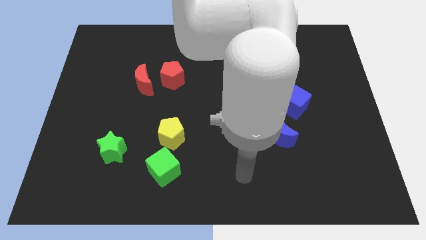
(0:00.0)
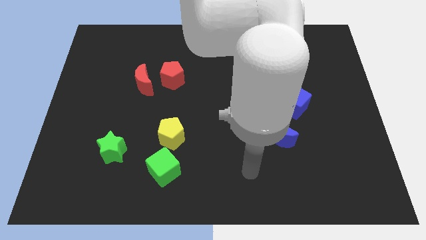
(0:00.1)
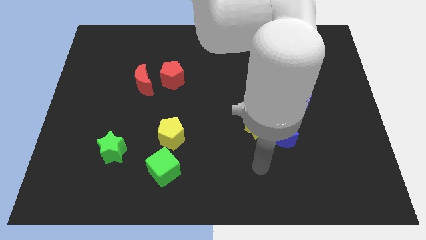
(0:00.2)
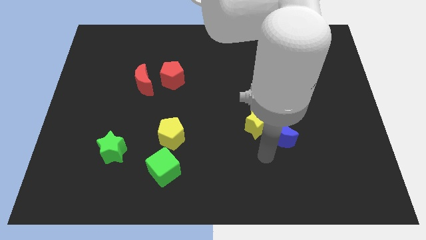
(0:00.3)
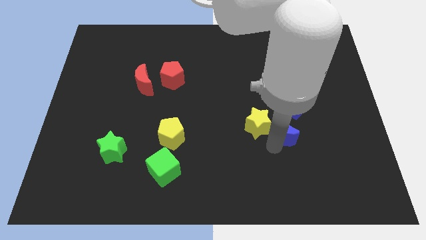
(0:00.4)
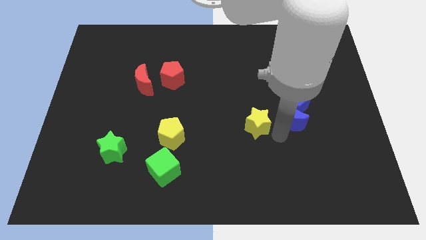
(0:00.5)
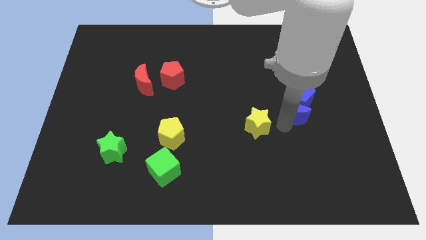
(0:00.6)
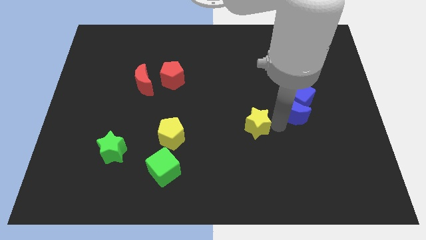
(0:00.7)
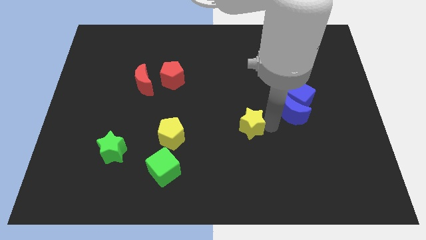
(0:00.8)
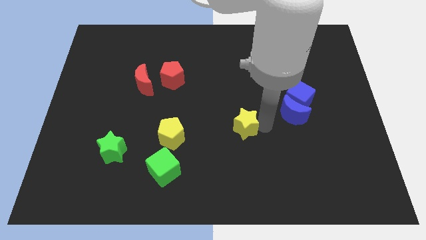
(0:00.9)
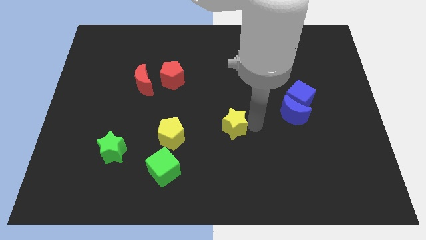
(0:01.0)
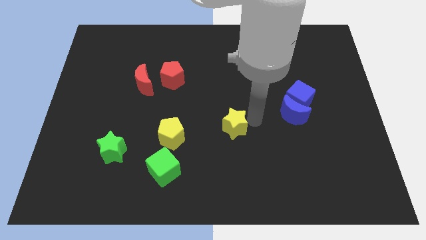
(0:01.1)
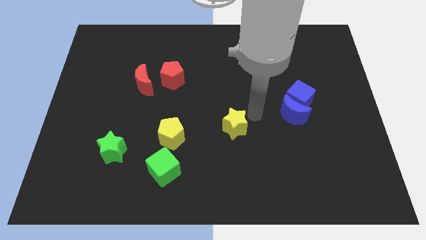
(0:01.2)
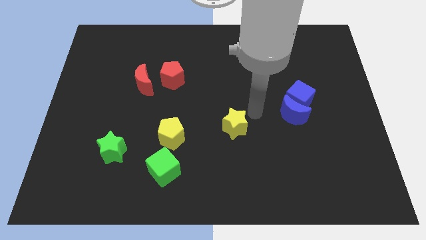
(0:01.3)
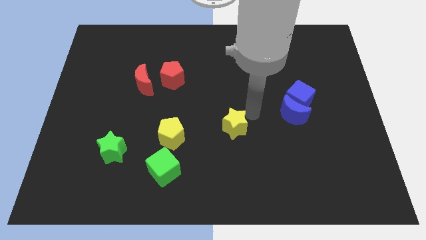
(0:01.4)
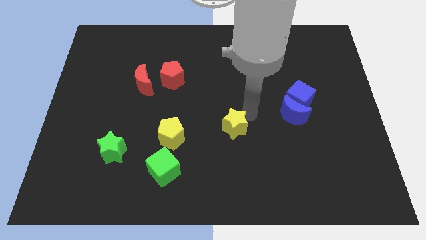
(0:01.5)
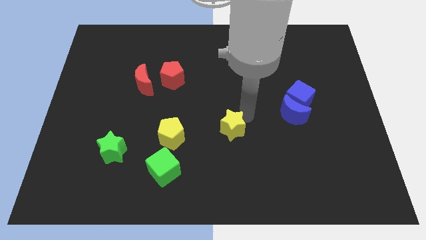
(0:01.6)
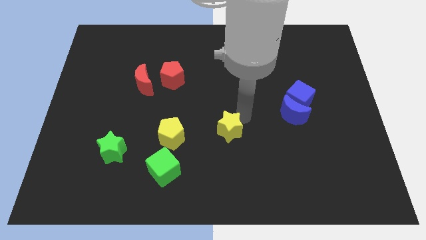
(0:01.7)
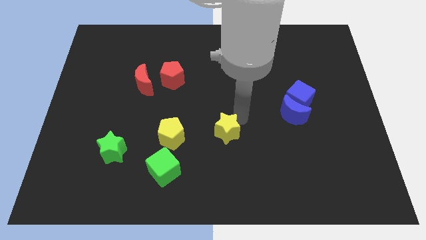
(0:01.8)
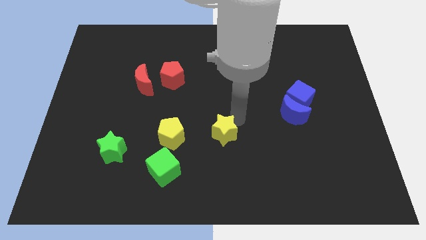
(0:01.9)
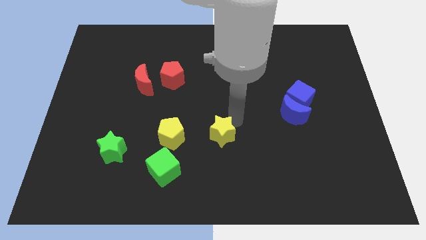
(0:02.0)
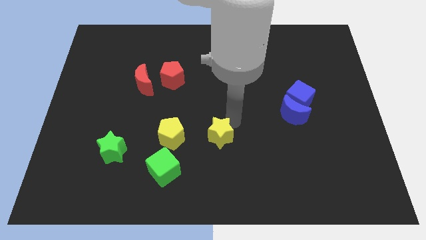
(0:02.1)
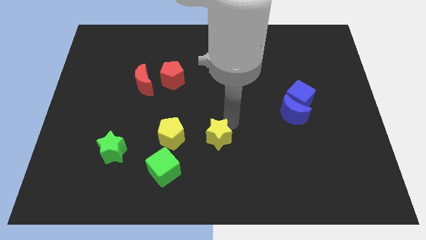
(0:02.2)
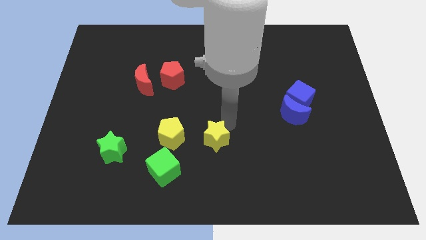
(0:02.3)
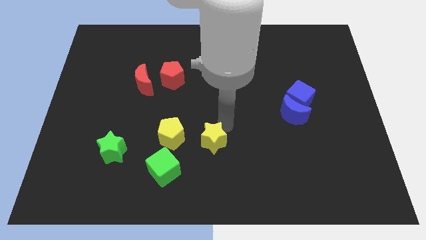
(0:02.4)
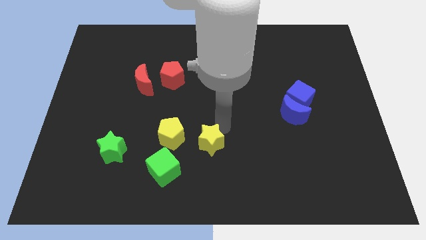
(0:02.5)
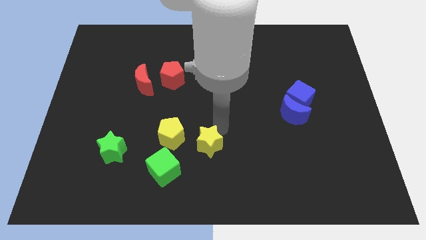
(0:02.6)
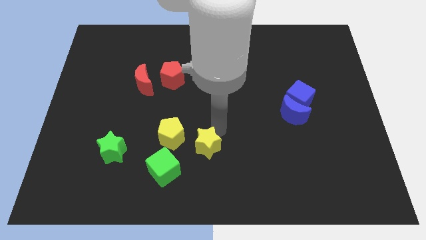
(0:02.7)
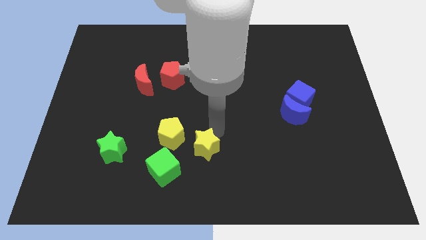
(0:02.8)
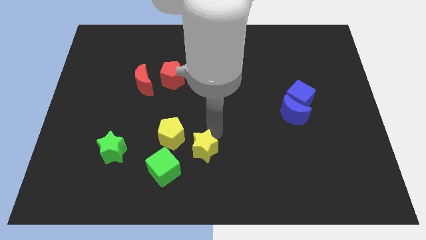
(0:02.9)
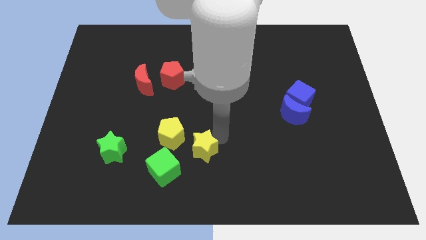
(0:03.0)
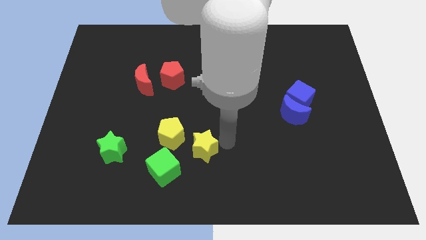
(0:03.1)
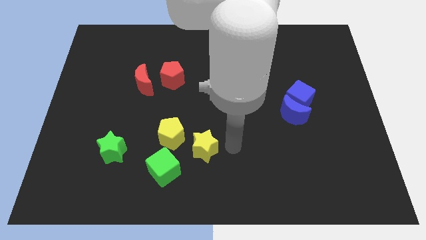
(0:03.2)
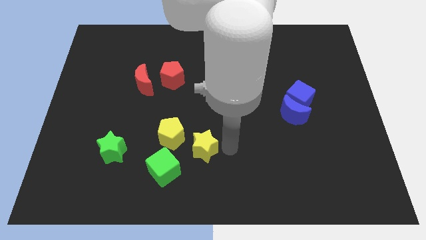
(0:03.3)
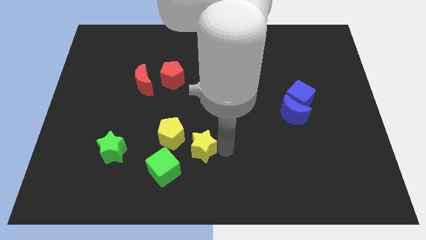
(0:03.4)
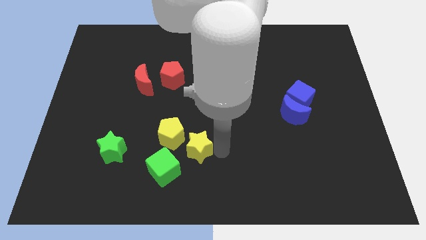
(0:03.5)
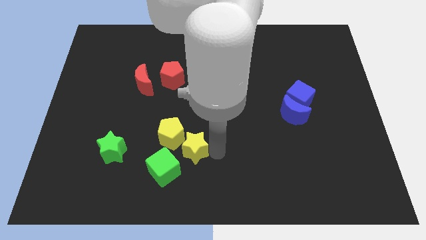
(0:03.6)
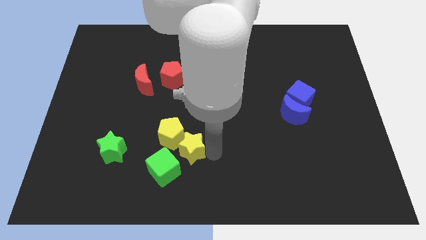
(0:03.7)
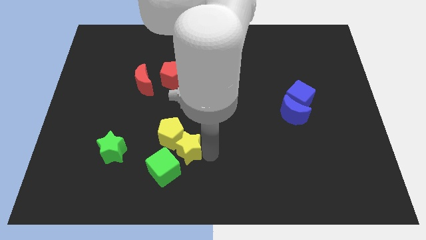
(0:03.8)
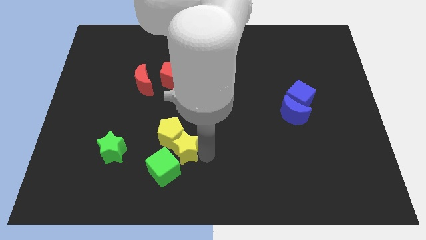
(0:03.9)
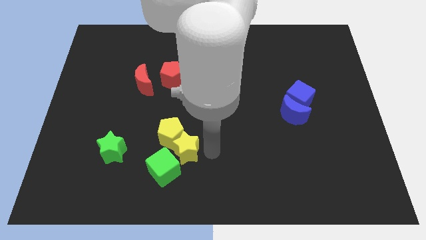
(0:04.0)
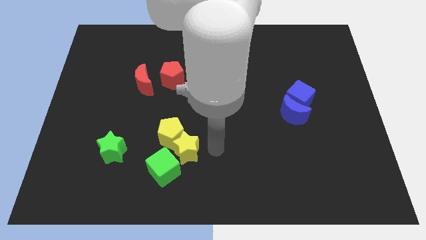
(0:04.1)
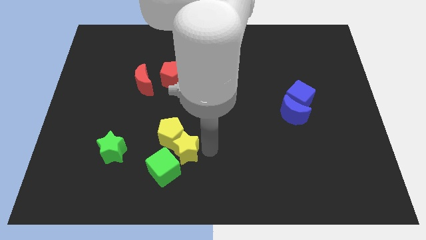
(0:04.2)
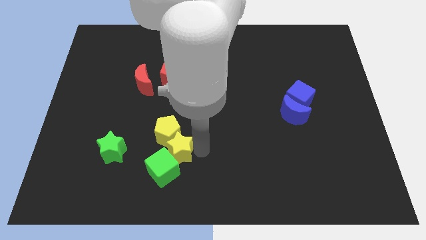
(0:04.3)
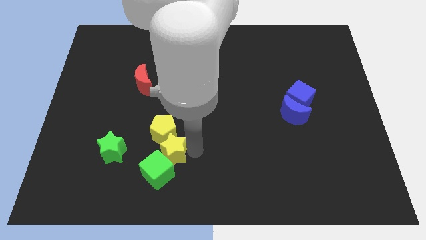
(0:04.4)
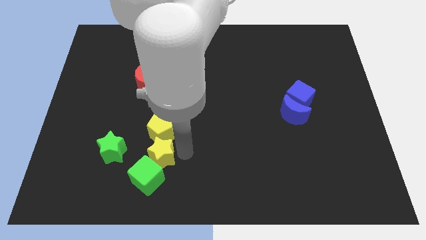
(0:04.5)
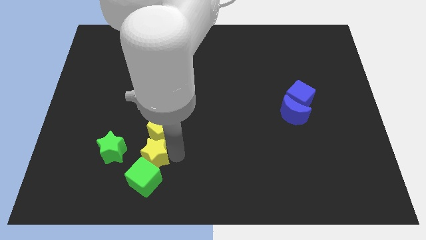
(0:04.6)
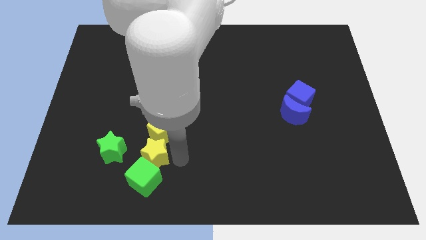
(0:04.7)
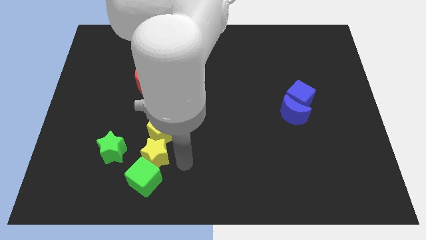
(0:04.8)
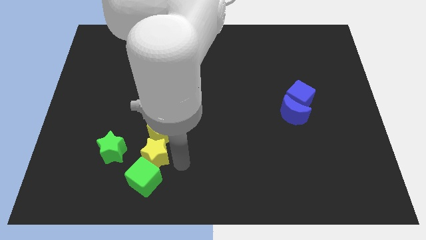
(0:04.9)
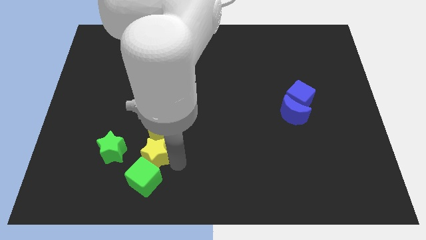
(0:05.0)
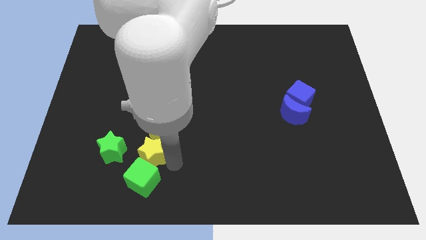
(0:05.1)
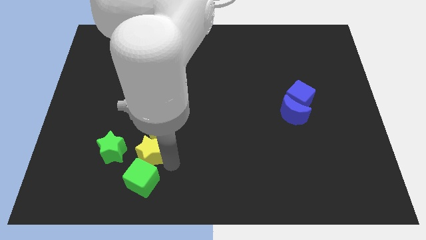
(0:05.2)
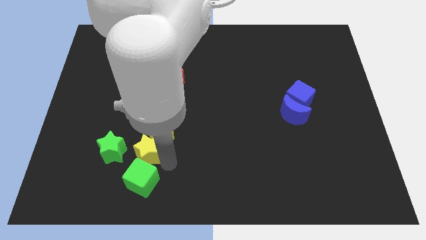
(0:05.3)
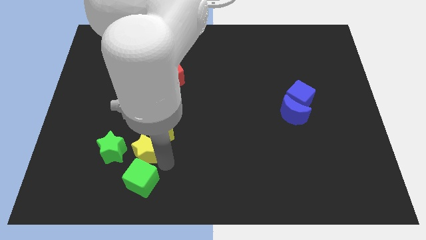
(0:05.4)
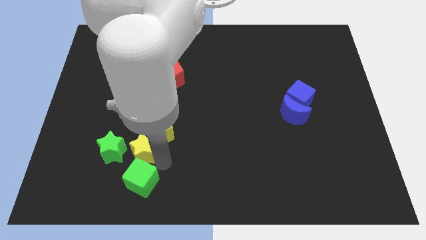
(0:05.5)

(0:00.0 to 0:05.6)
put the yellow star to the green star

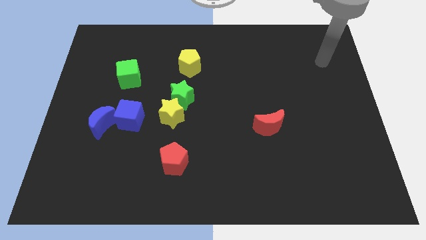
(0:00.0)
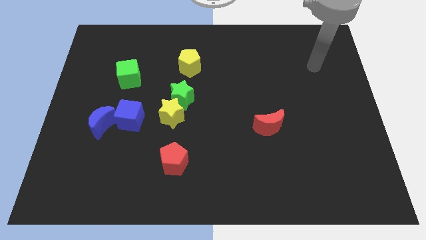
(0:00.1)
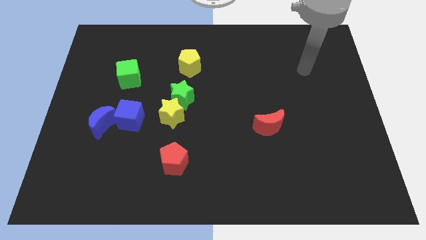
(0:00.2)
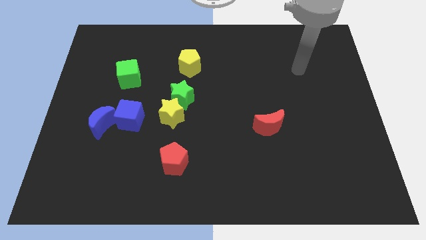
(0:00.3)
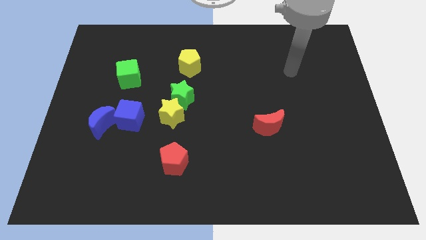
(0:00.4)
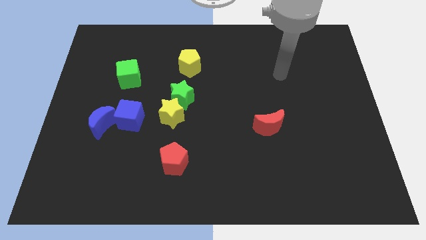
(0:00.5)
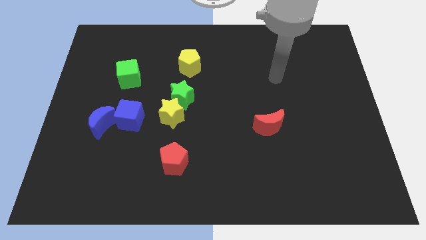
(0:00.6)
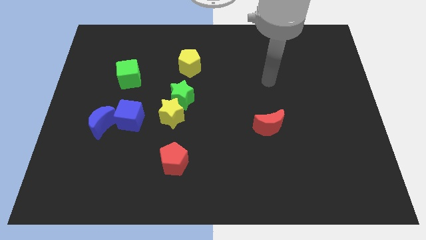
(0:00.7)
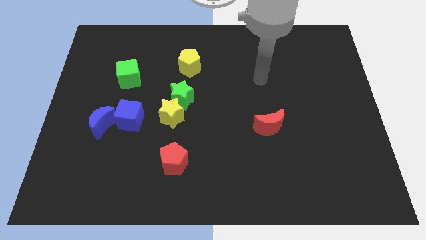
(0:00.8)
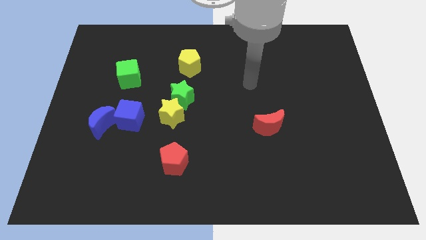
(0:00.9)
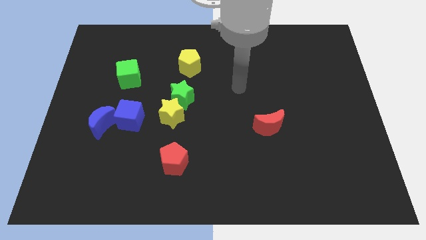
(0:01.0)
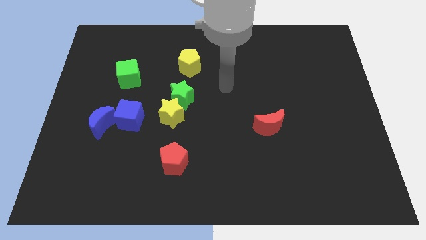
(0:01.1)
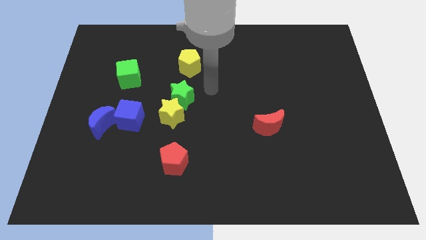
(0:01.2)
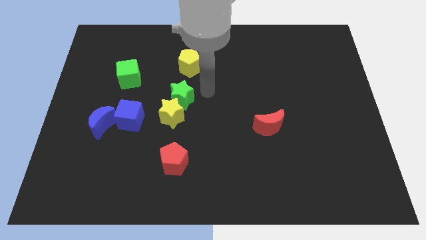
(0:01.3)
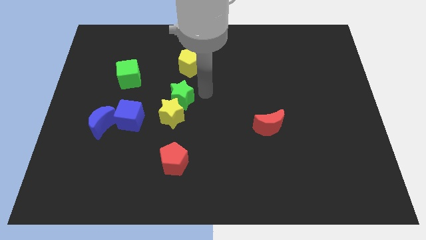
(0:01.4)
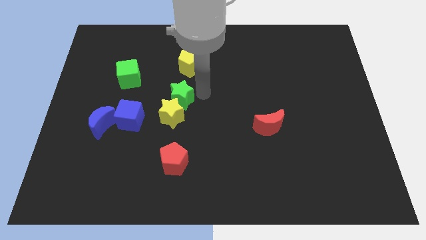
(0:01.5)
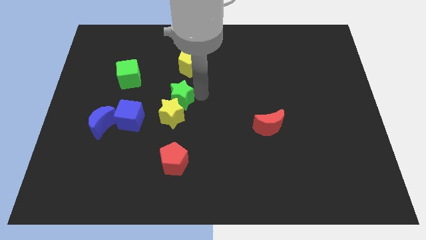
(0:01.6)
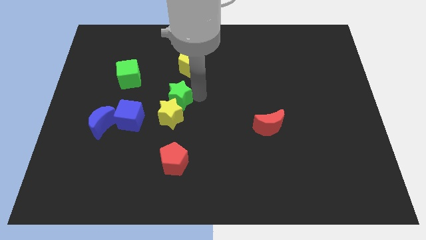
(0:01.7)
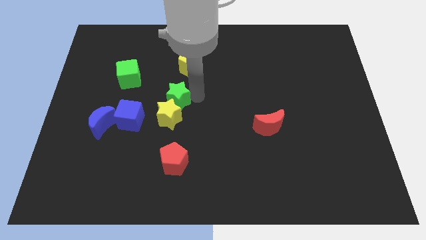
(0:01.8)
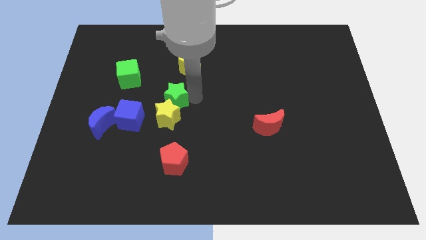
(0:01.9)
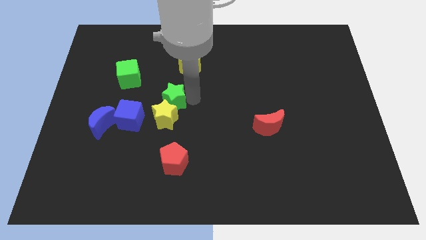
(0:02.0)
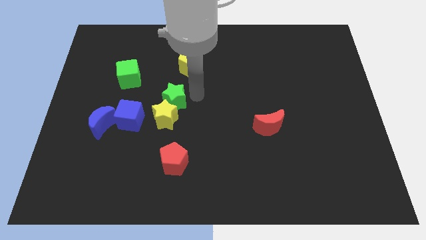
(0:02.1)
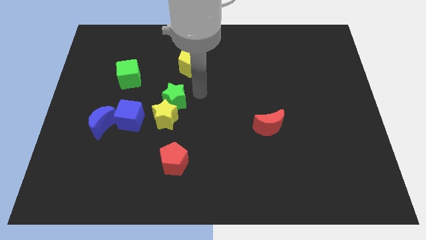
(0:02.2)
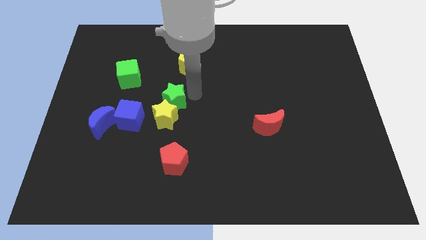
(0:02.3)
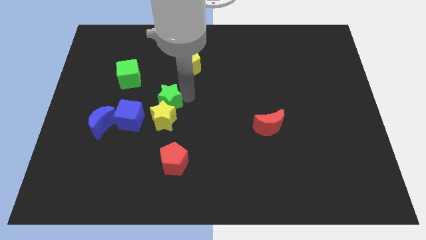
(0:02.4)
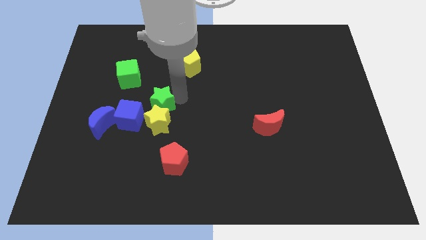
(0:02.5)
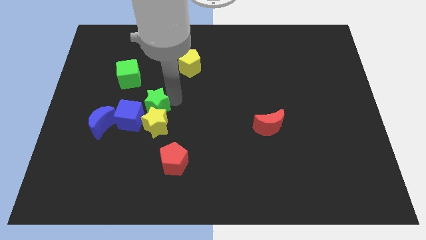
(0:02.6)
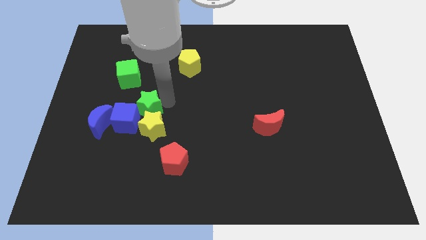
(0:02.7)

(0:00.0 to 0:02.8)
move the green star towards the blue cube
